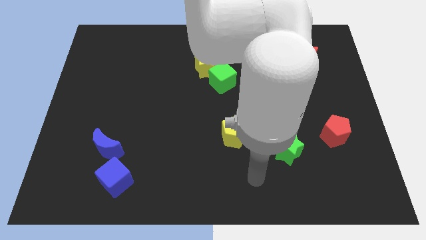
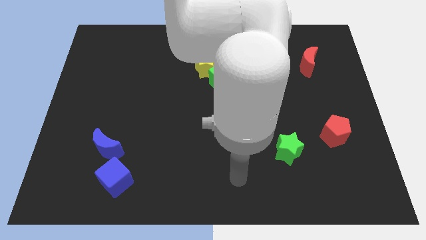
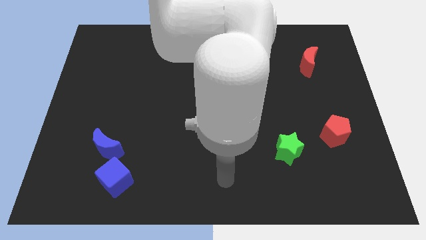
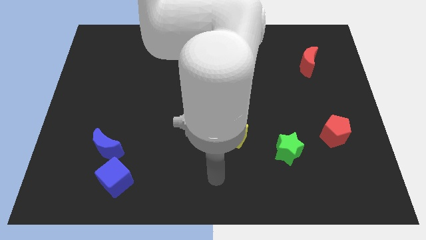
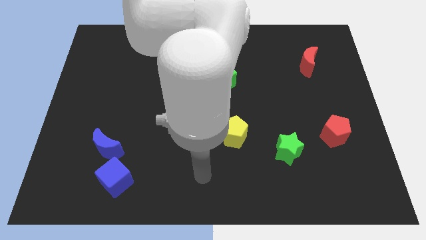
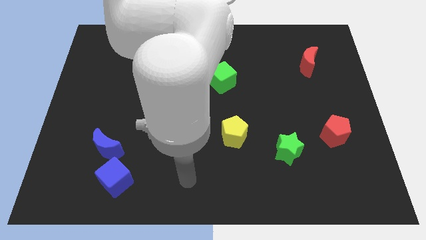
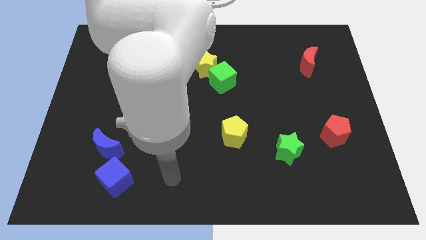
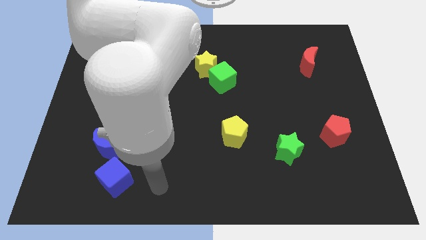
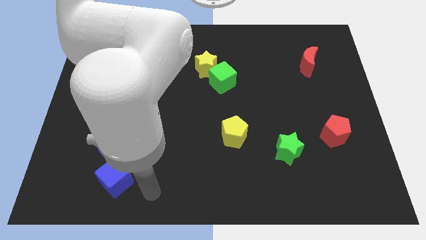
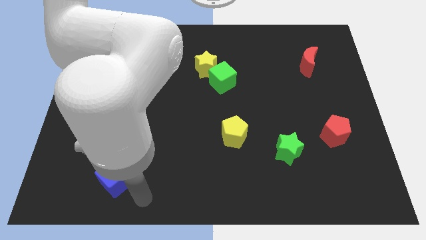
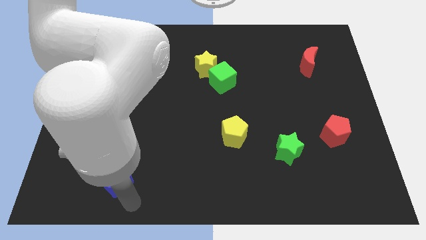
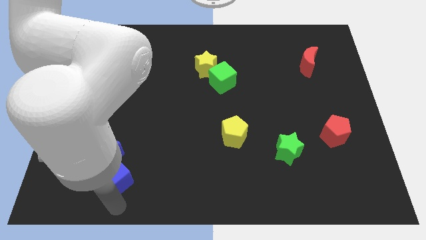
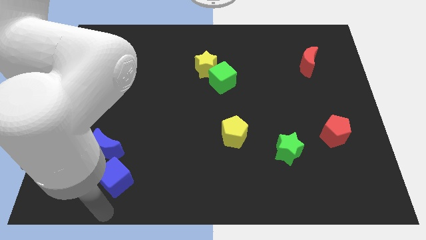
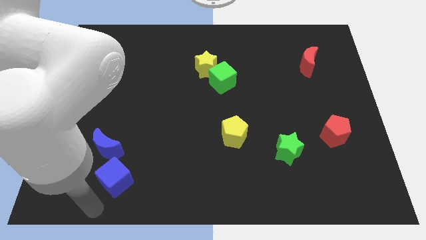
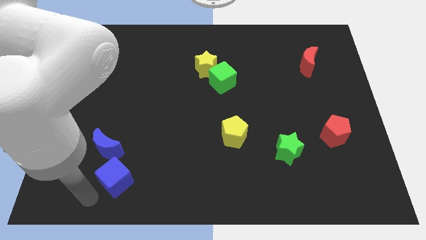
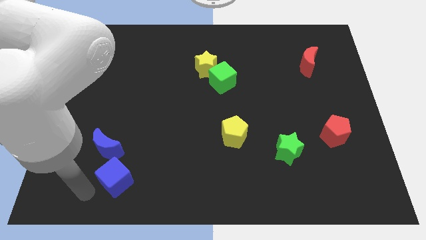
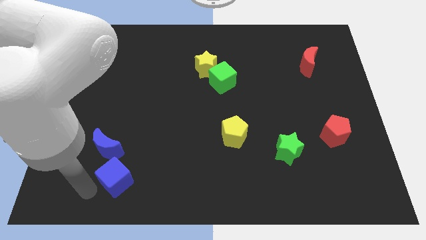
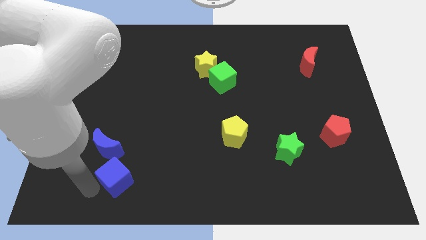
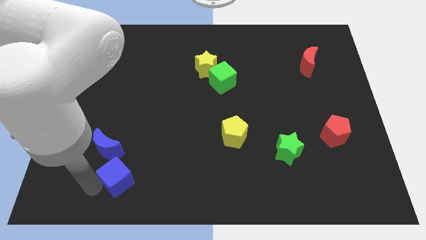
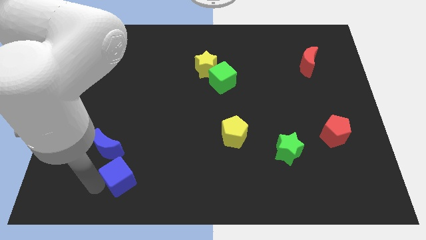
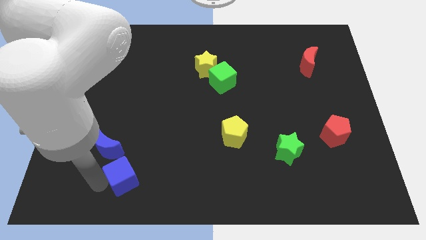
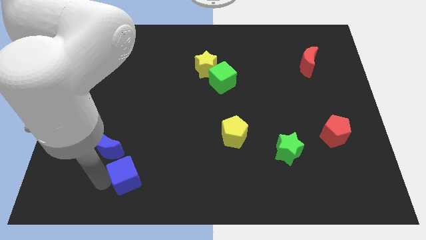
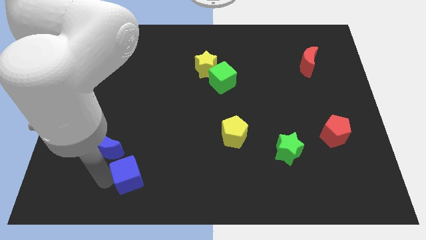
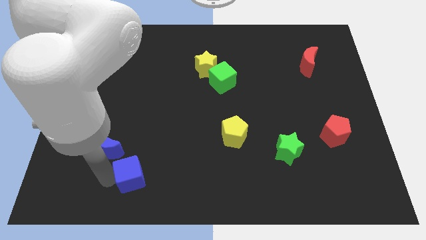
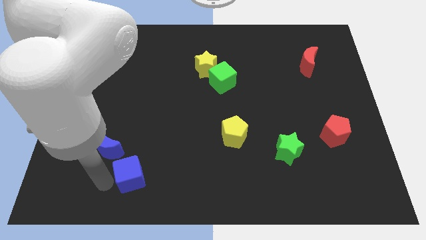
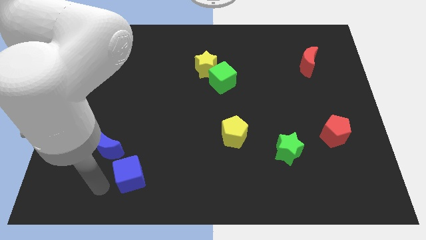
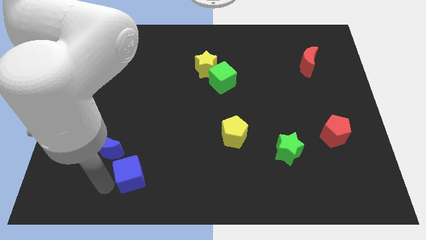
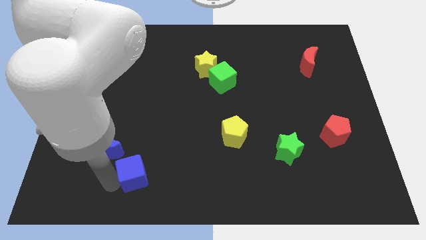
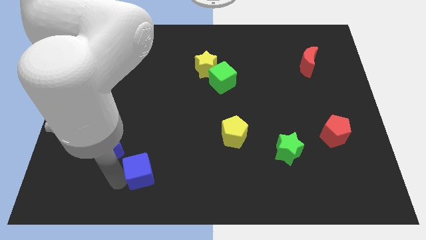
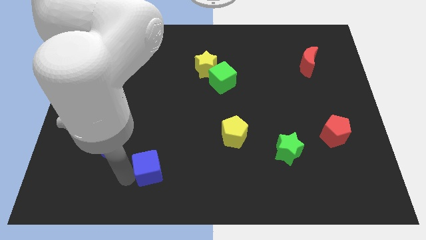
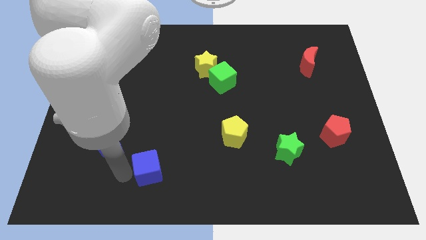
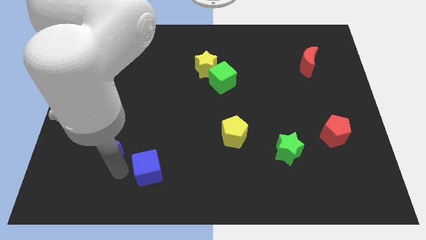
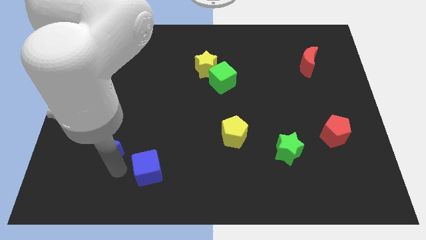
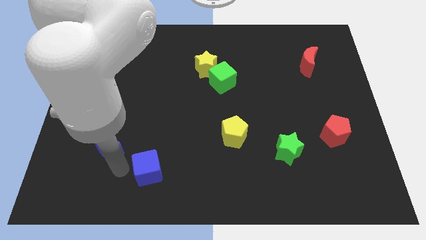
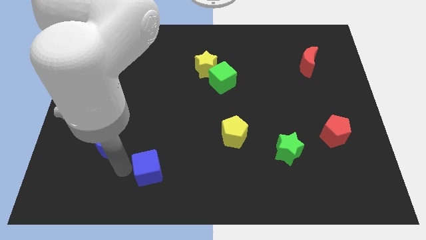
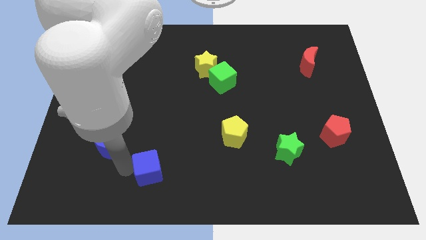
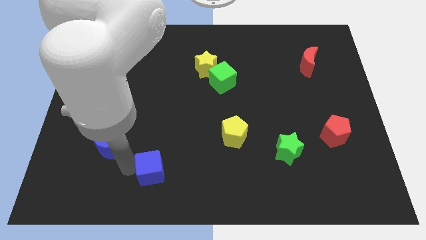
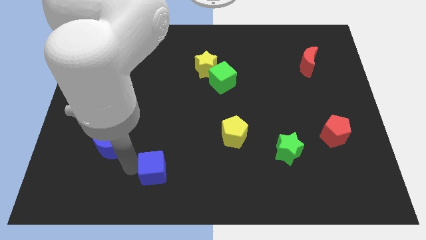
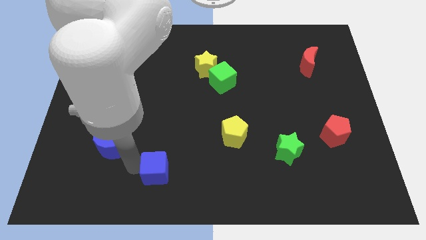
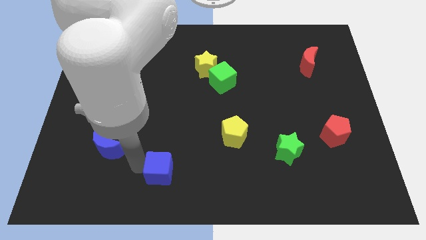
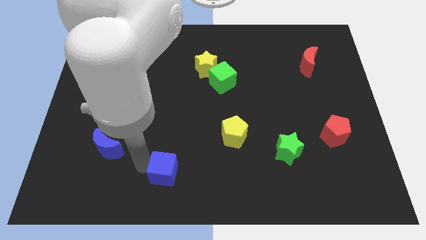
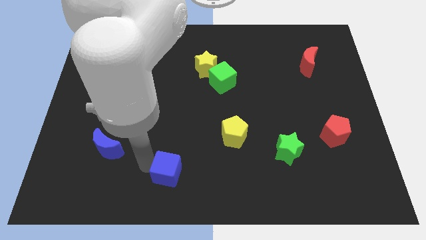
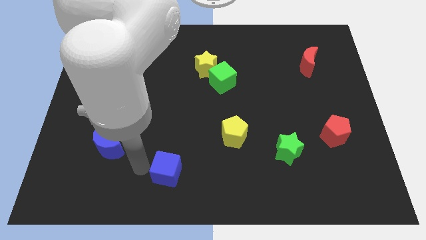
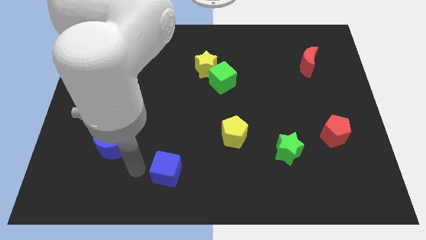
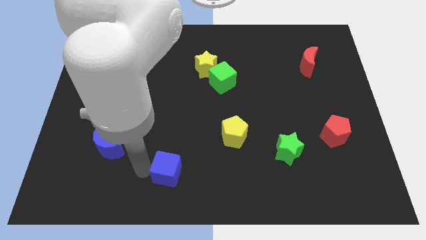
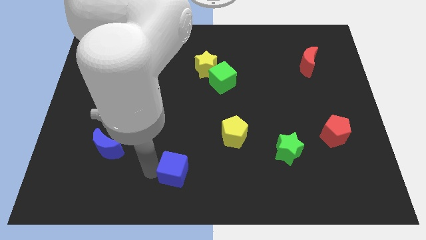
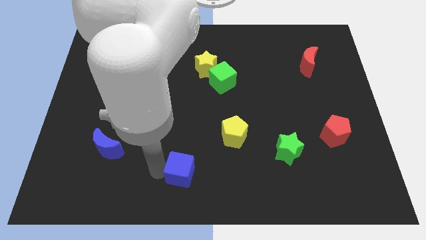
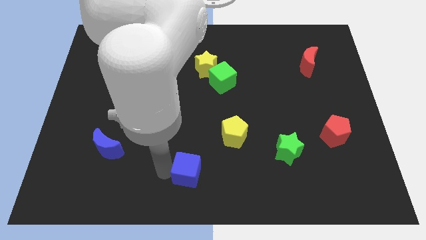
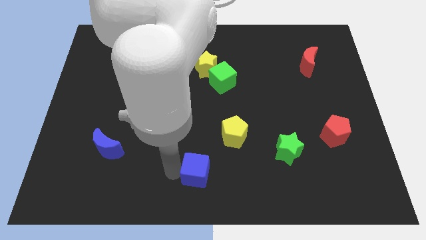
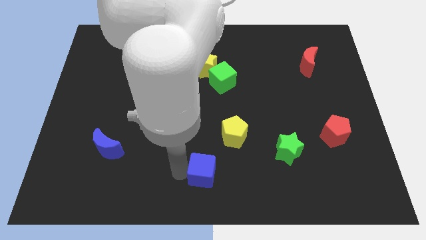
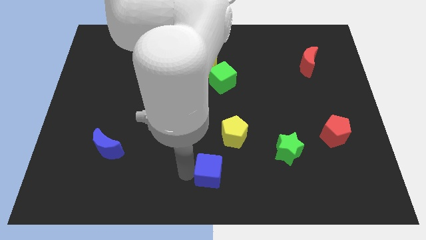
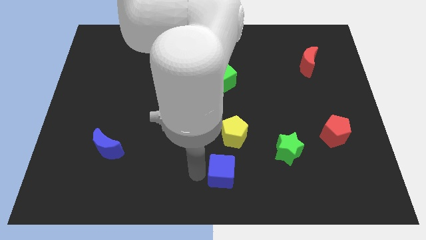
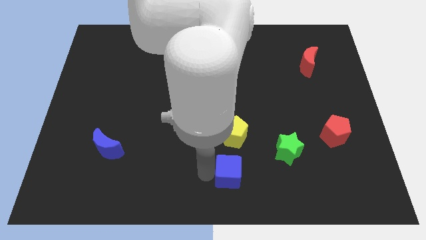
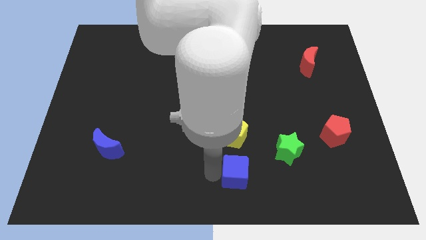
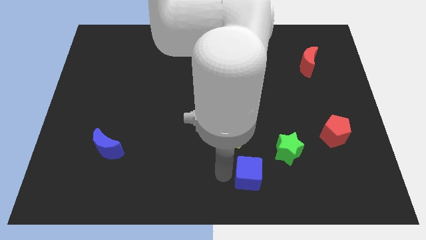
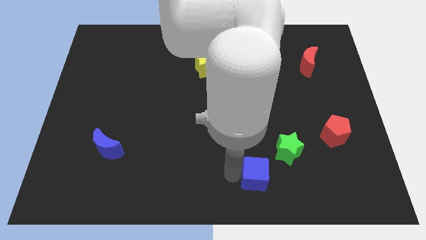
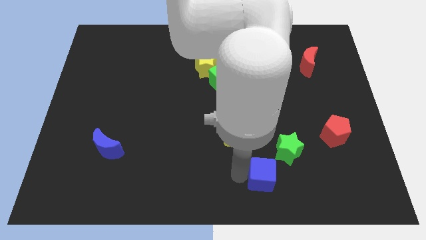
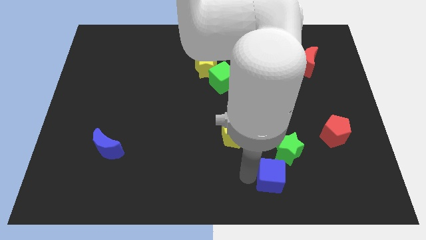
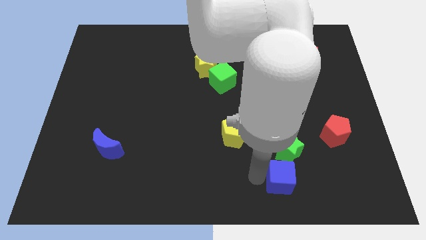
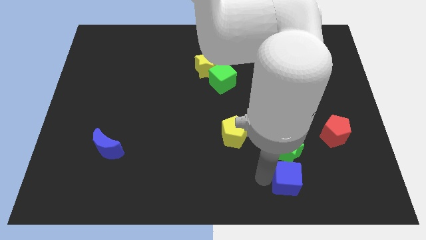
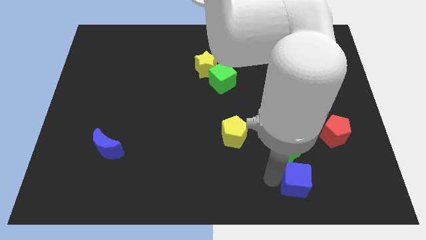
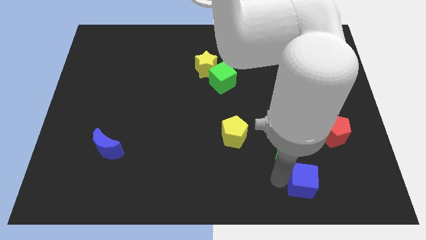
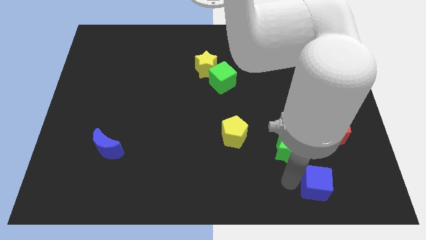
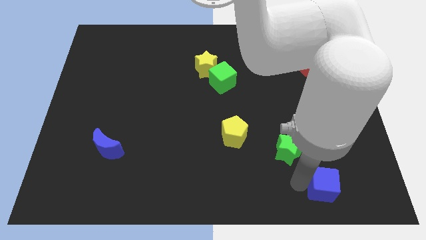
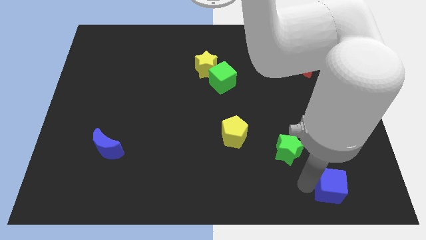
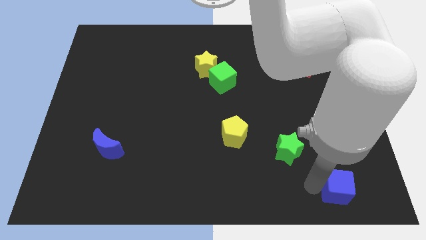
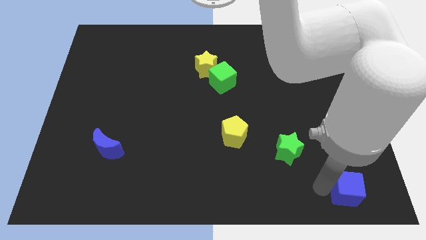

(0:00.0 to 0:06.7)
move the blue cube to the bottom right corner

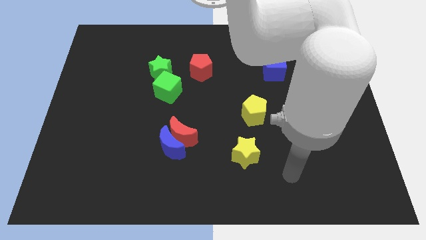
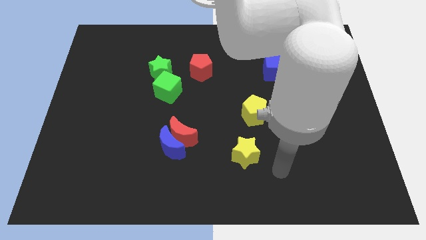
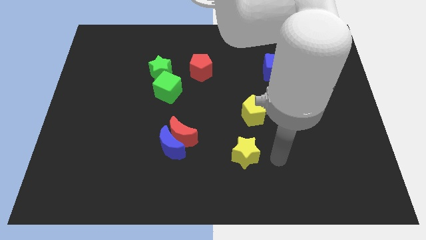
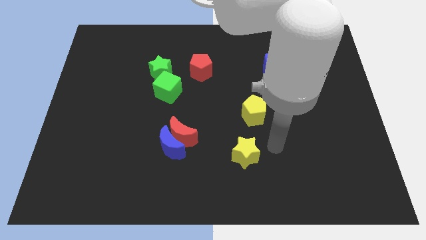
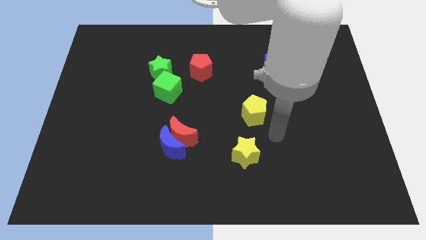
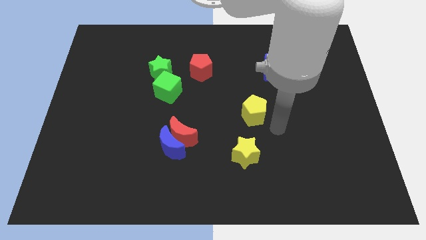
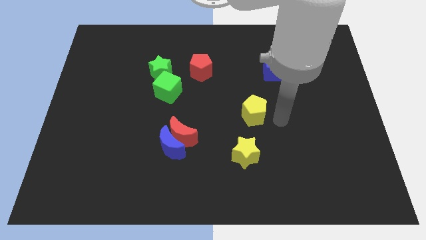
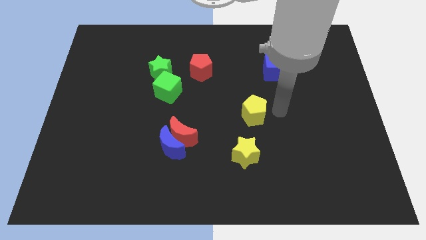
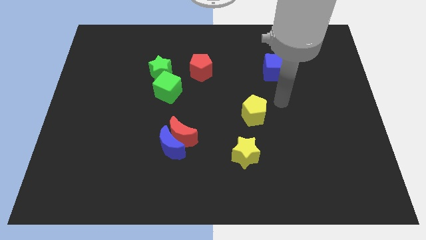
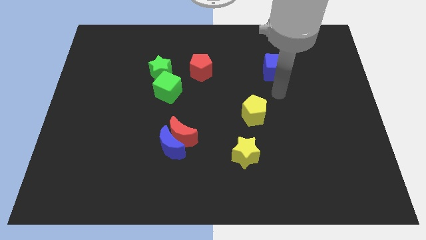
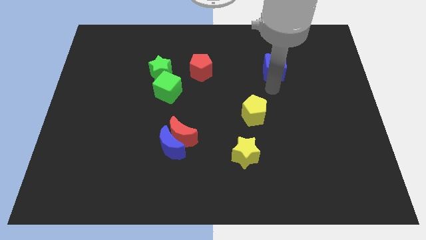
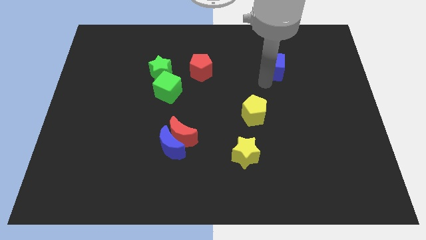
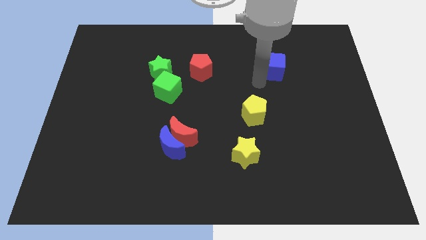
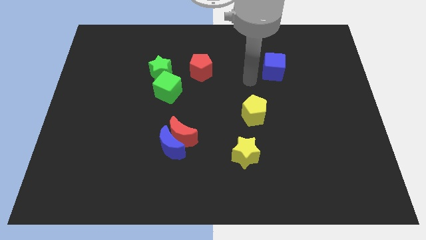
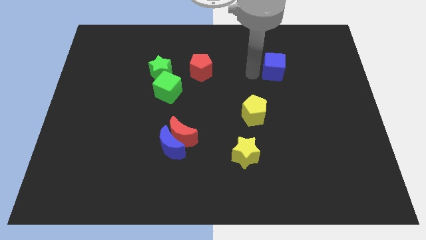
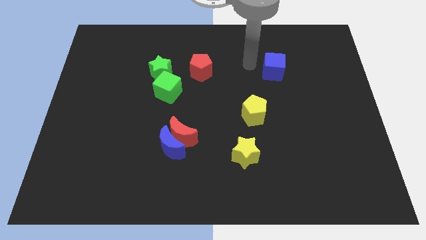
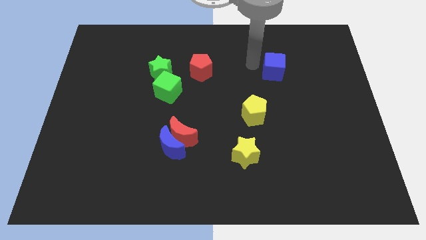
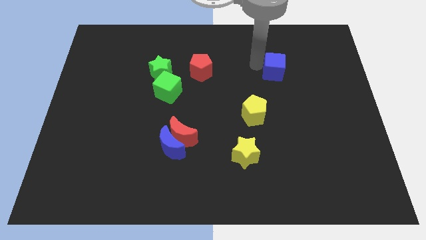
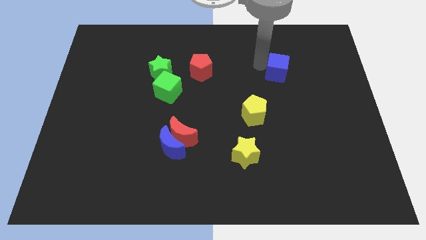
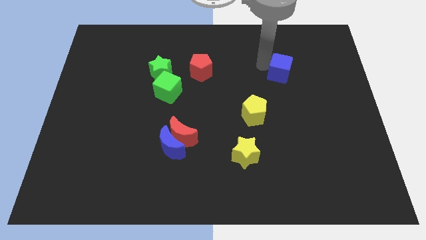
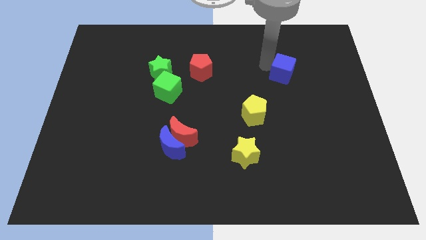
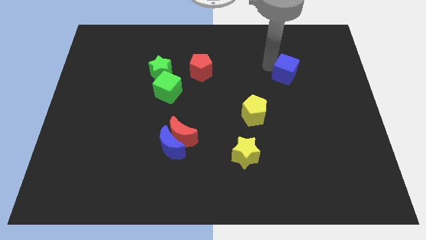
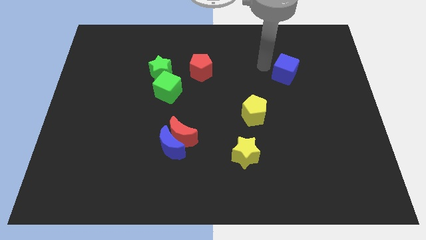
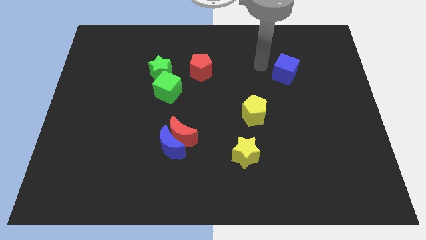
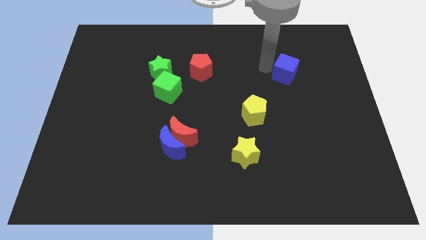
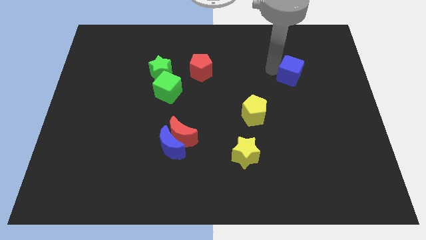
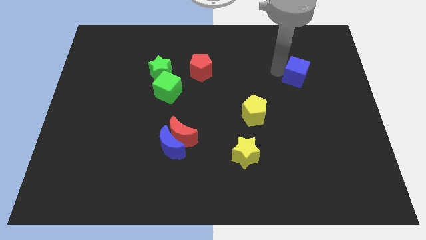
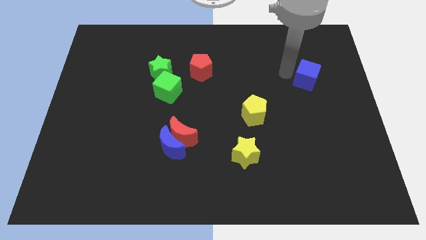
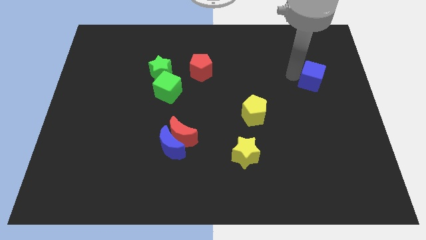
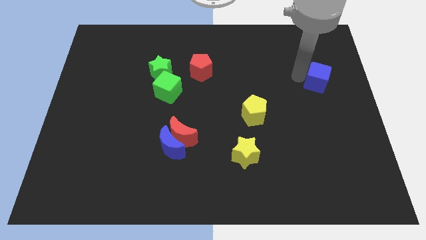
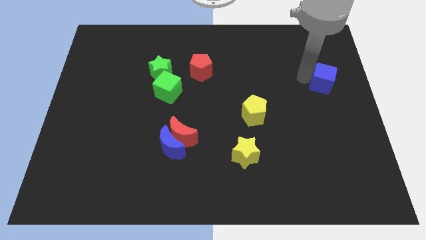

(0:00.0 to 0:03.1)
put the blue cube to the right side
